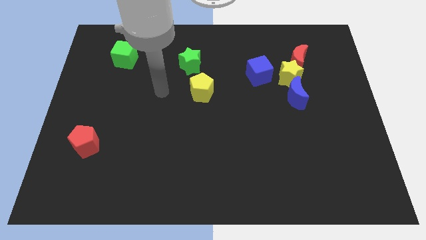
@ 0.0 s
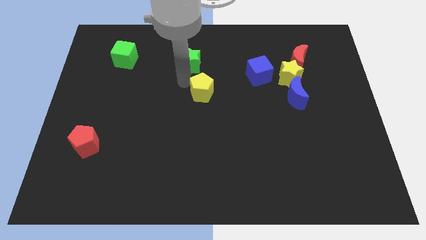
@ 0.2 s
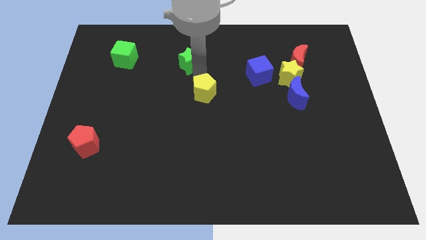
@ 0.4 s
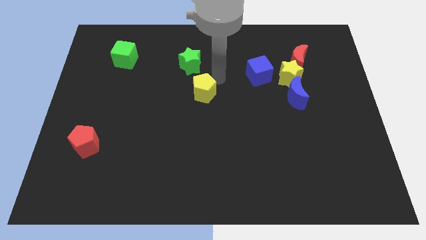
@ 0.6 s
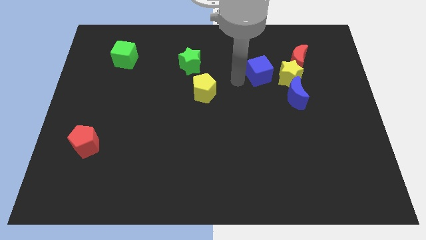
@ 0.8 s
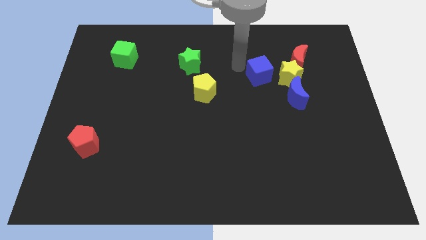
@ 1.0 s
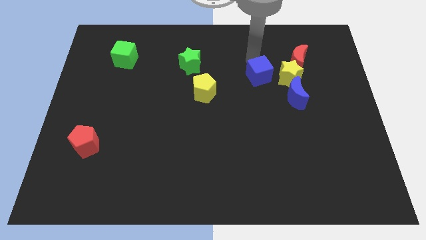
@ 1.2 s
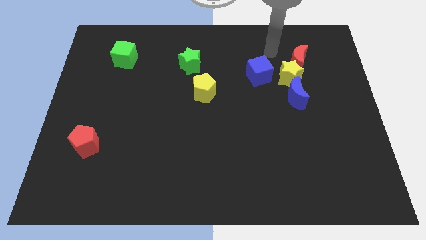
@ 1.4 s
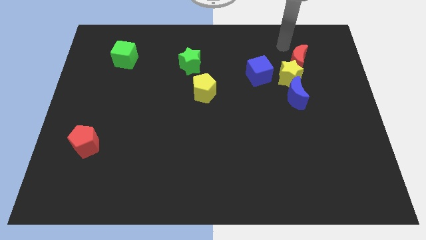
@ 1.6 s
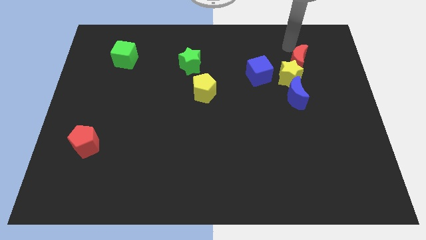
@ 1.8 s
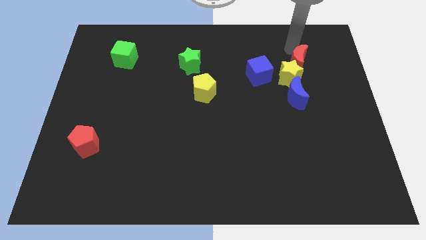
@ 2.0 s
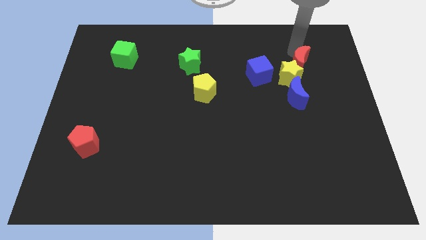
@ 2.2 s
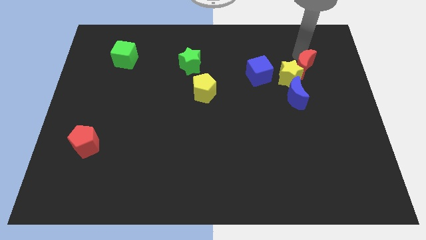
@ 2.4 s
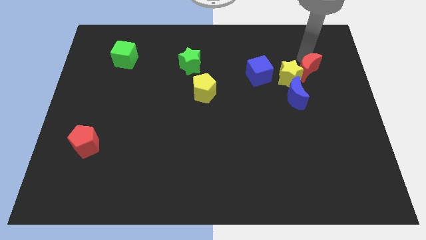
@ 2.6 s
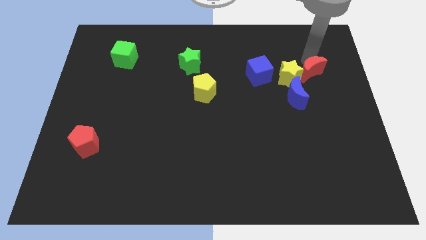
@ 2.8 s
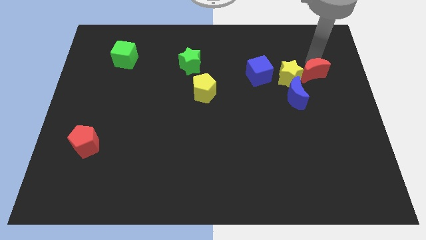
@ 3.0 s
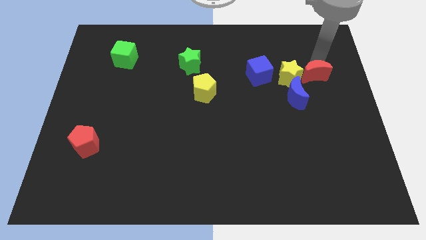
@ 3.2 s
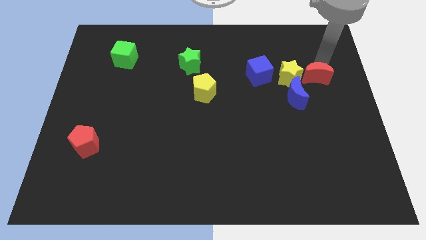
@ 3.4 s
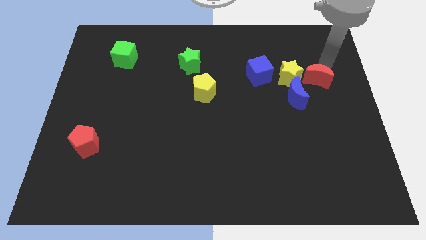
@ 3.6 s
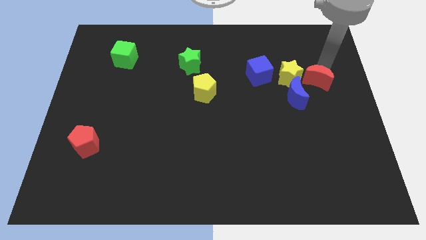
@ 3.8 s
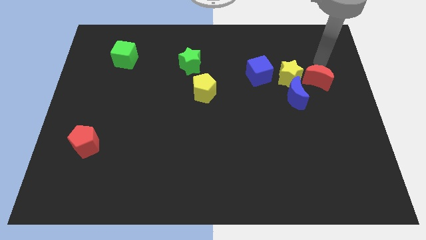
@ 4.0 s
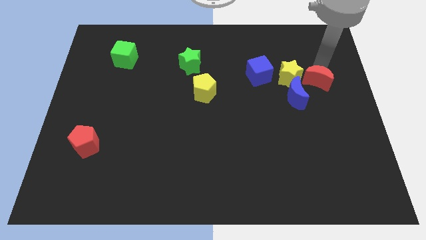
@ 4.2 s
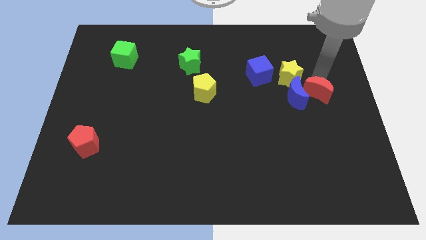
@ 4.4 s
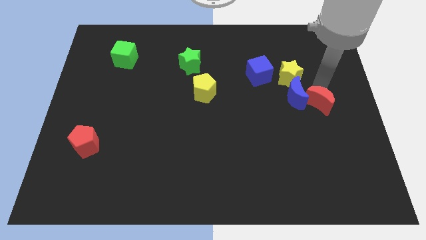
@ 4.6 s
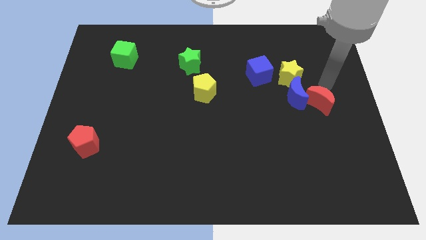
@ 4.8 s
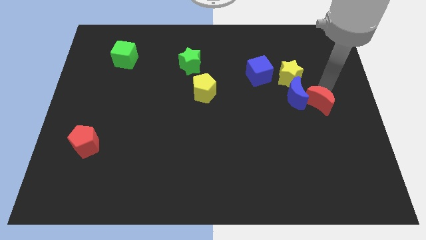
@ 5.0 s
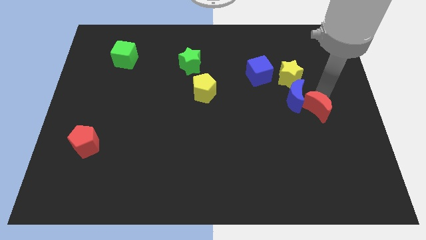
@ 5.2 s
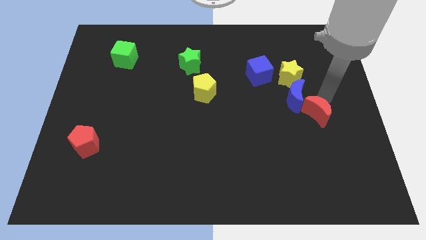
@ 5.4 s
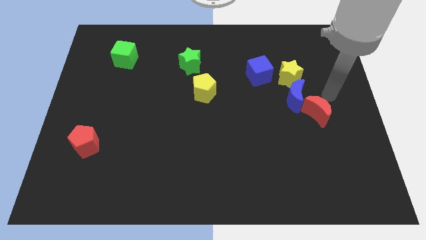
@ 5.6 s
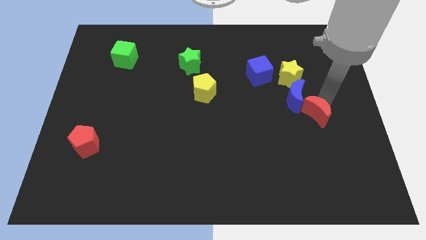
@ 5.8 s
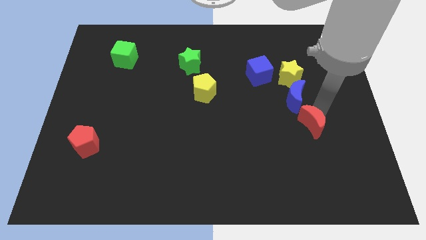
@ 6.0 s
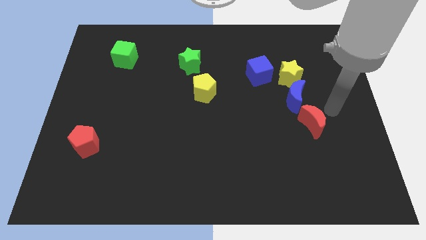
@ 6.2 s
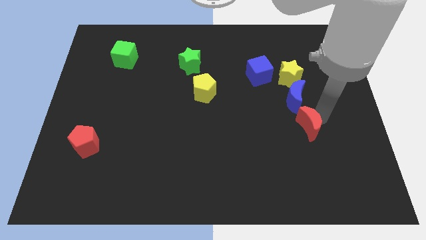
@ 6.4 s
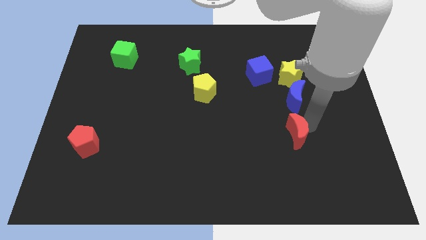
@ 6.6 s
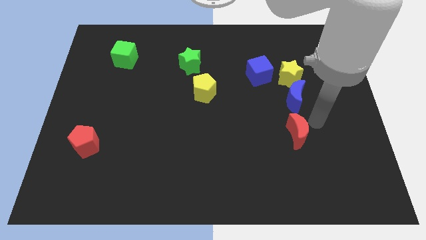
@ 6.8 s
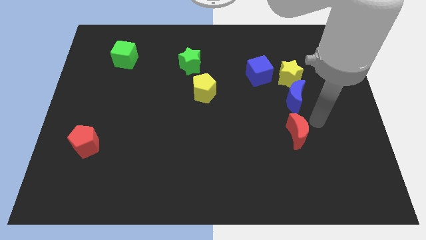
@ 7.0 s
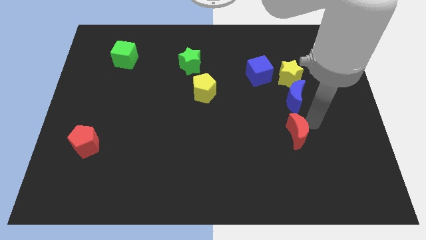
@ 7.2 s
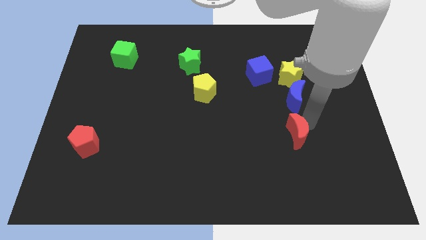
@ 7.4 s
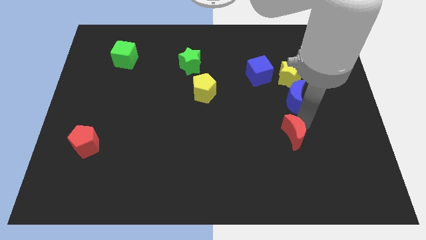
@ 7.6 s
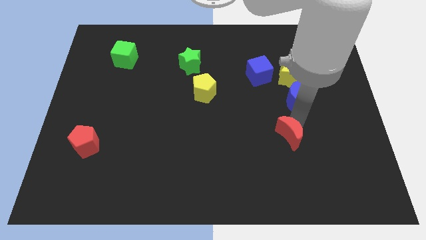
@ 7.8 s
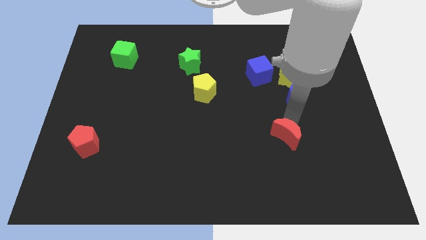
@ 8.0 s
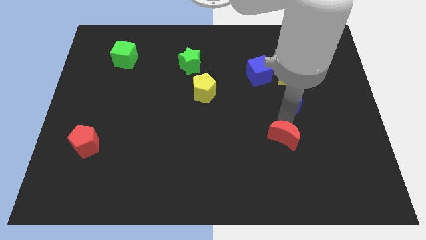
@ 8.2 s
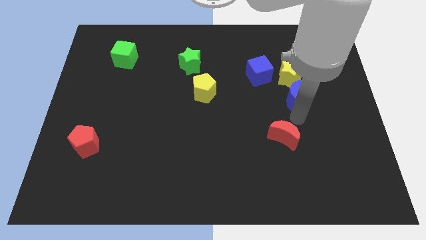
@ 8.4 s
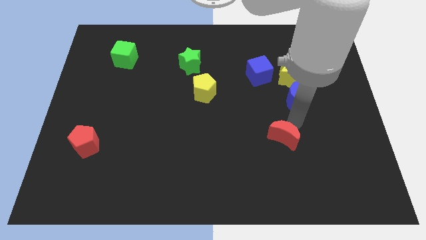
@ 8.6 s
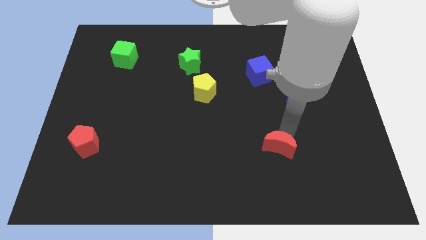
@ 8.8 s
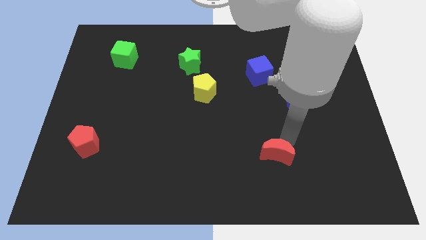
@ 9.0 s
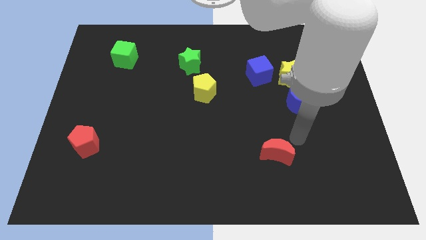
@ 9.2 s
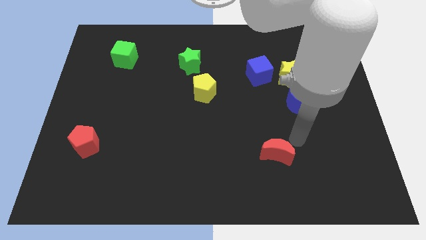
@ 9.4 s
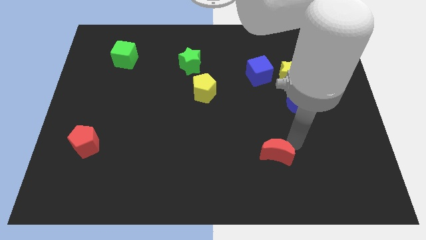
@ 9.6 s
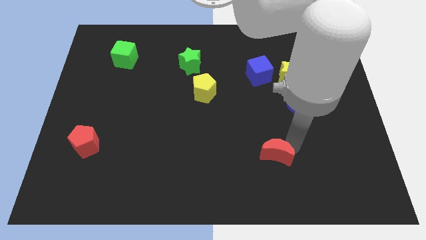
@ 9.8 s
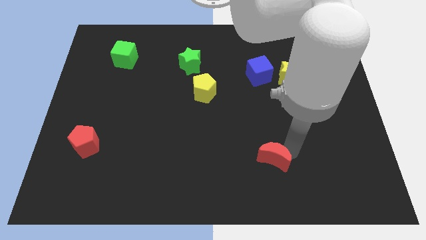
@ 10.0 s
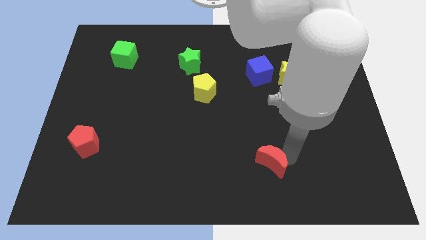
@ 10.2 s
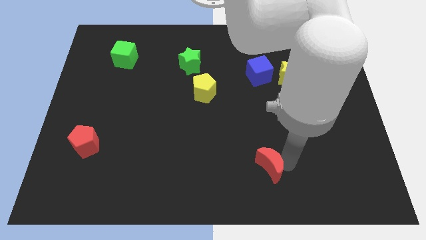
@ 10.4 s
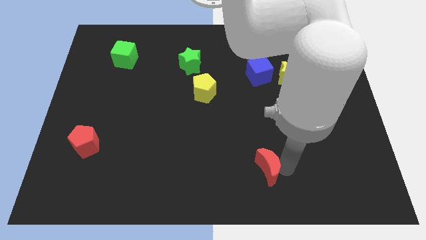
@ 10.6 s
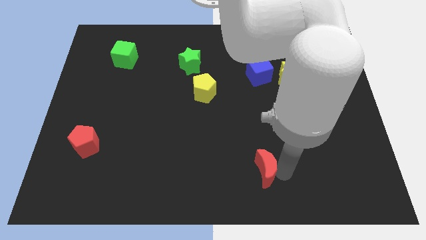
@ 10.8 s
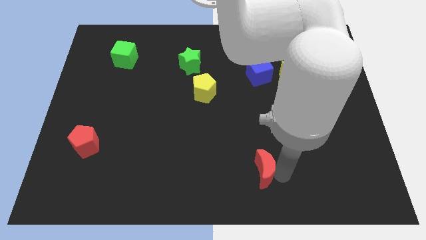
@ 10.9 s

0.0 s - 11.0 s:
slide the red moon to the bottom
